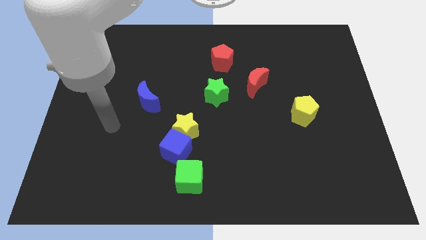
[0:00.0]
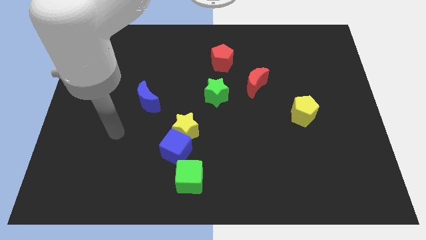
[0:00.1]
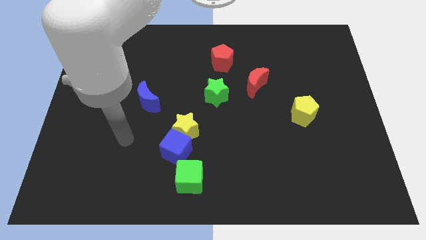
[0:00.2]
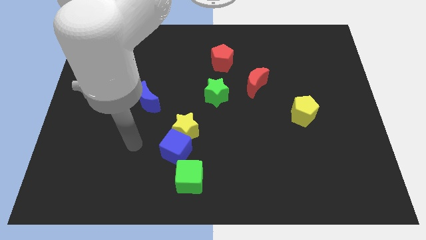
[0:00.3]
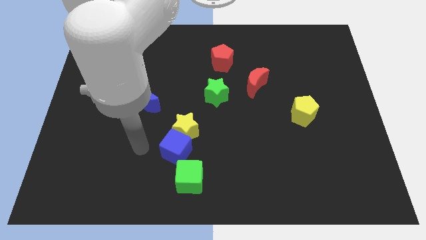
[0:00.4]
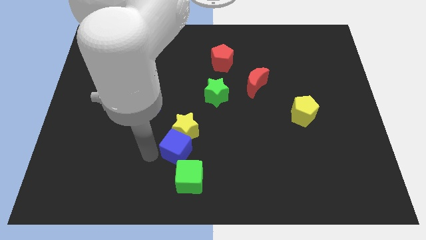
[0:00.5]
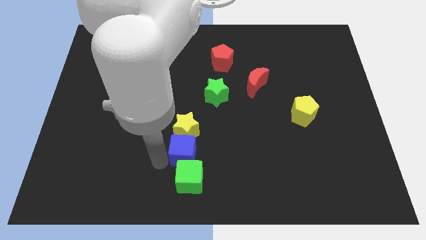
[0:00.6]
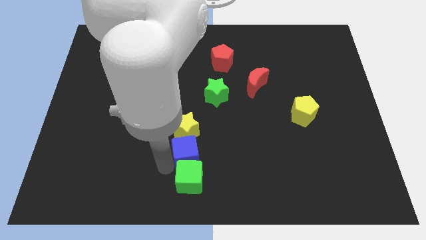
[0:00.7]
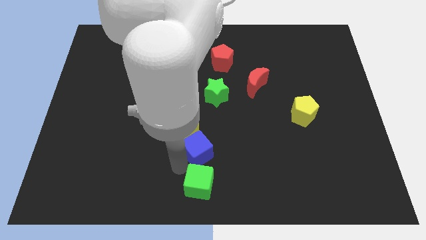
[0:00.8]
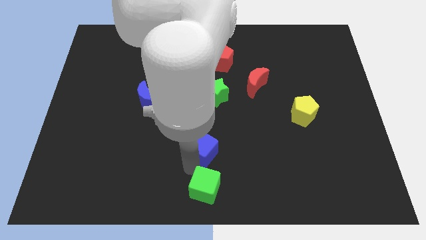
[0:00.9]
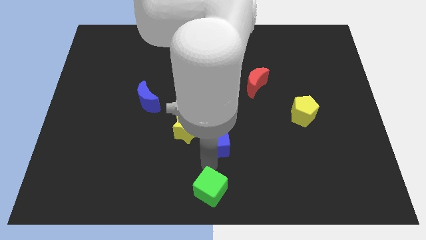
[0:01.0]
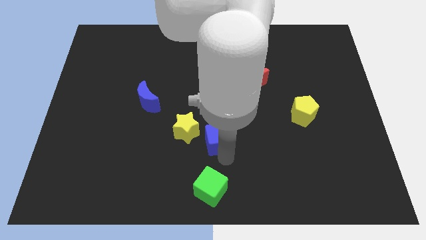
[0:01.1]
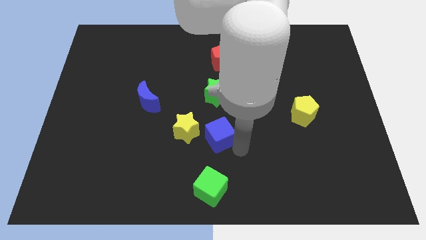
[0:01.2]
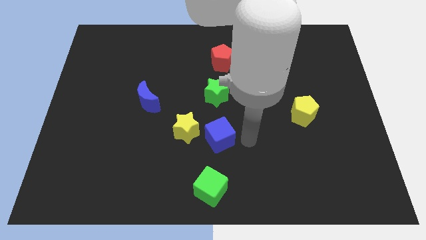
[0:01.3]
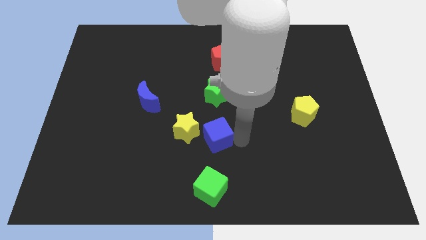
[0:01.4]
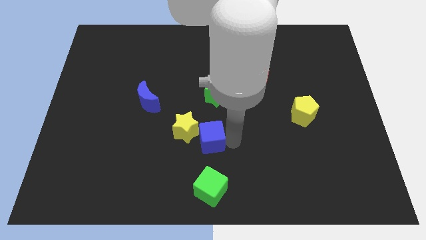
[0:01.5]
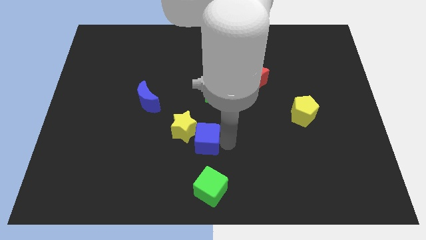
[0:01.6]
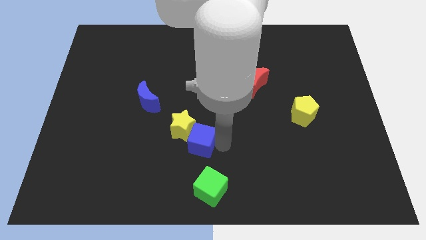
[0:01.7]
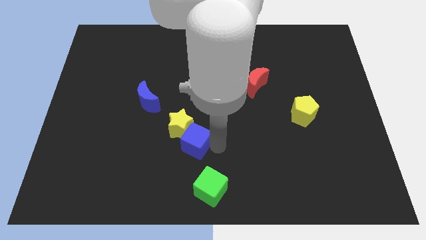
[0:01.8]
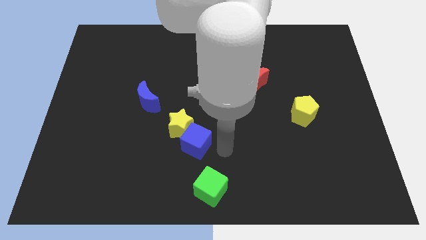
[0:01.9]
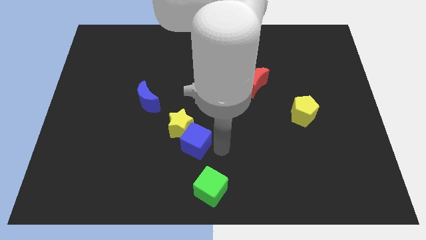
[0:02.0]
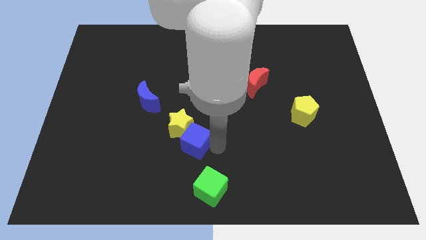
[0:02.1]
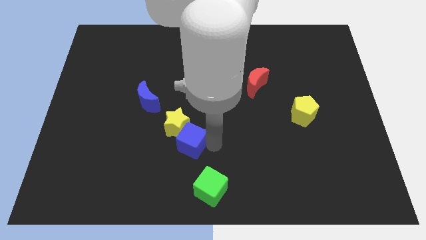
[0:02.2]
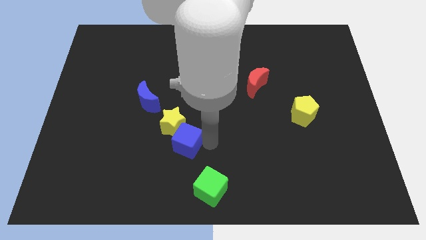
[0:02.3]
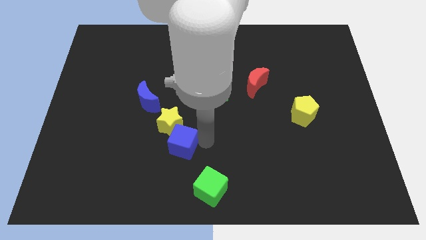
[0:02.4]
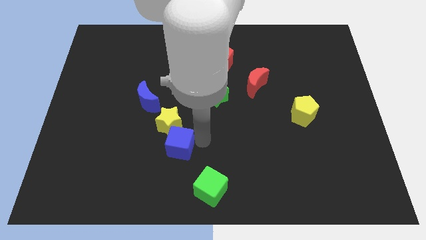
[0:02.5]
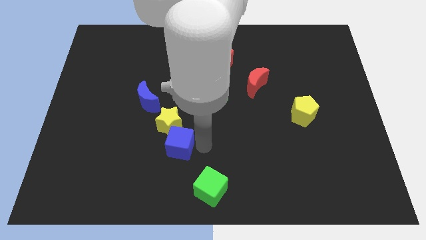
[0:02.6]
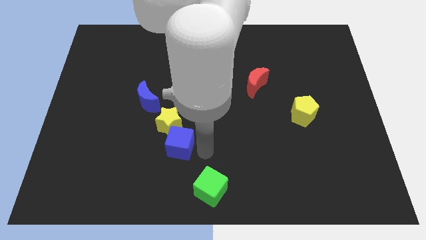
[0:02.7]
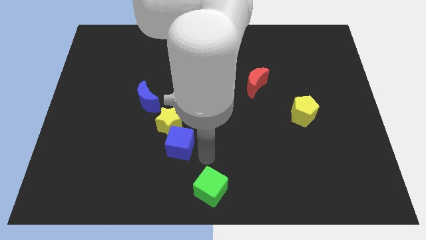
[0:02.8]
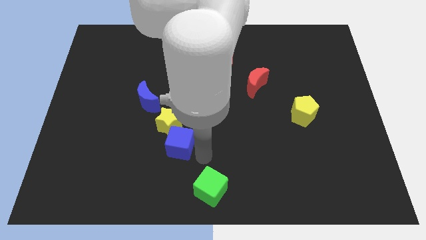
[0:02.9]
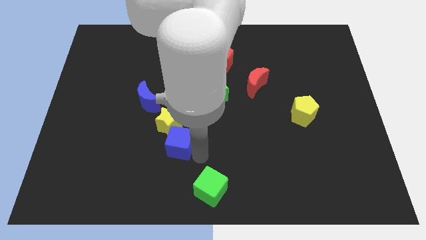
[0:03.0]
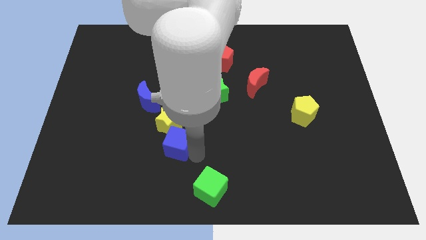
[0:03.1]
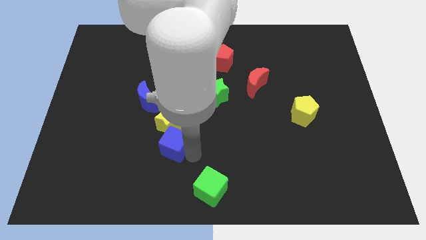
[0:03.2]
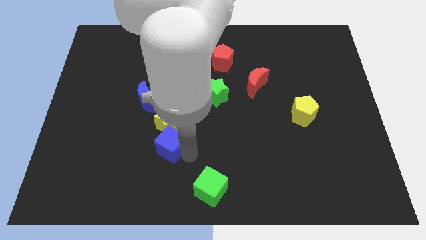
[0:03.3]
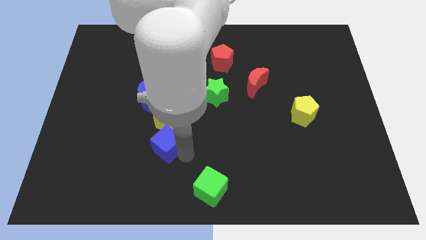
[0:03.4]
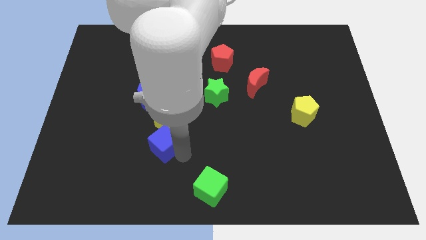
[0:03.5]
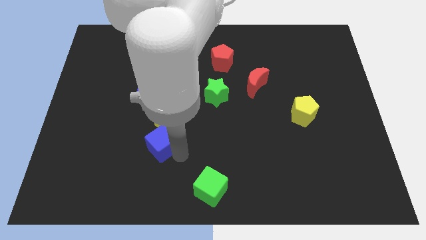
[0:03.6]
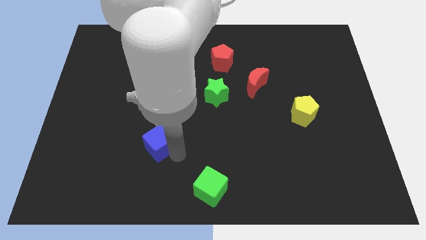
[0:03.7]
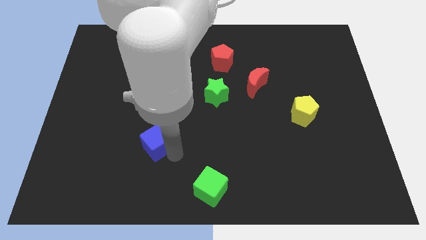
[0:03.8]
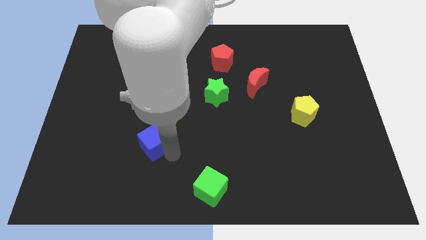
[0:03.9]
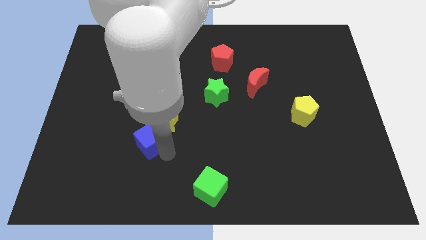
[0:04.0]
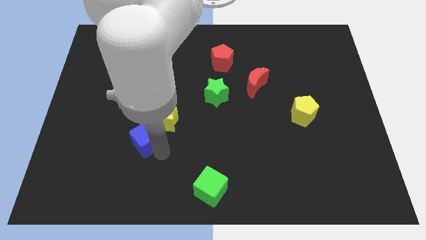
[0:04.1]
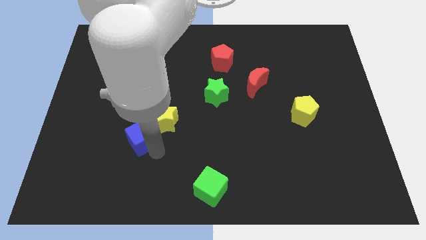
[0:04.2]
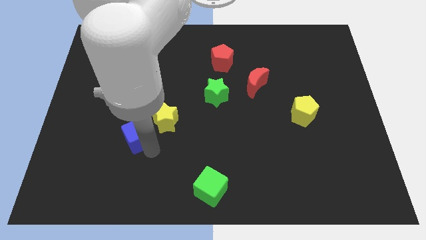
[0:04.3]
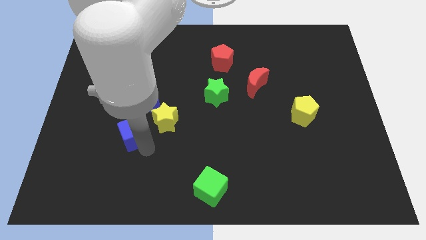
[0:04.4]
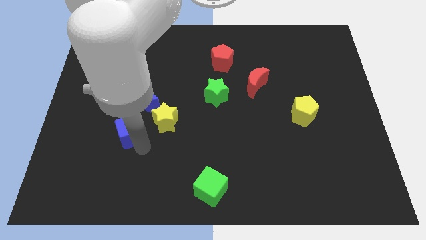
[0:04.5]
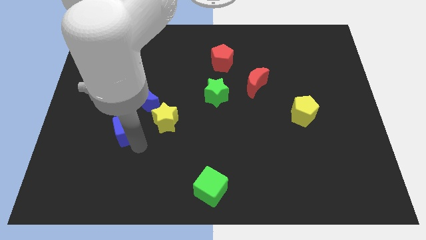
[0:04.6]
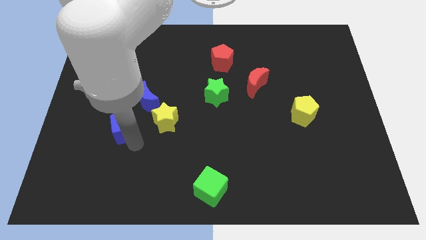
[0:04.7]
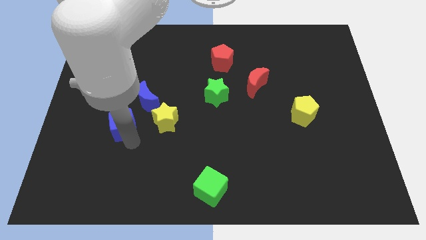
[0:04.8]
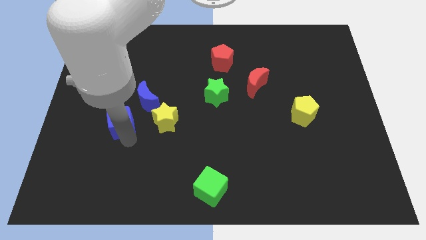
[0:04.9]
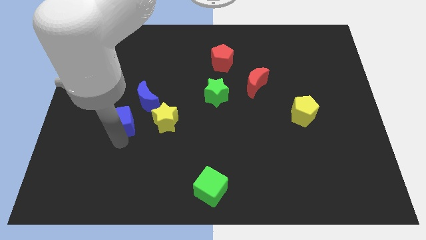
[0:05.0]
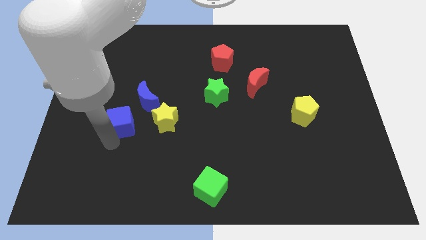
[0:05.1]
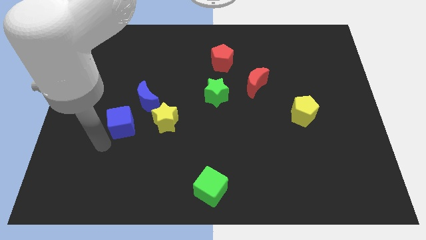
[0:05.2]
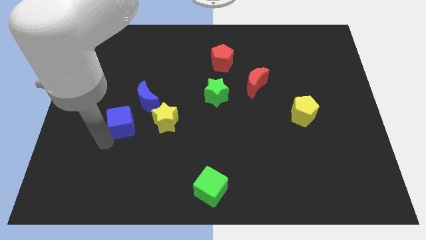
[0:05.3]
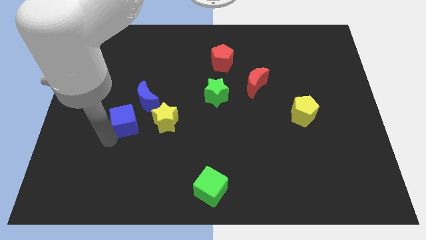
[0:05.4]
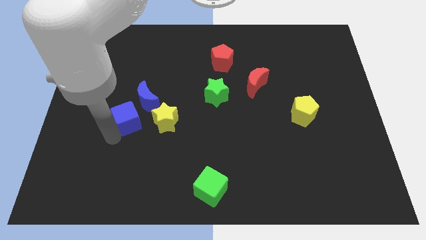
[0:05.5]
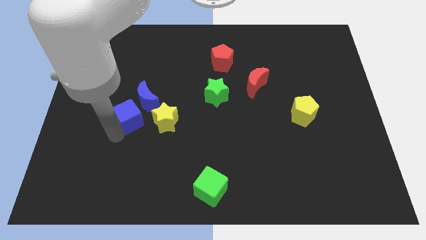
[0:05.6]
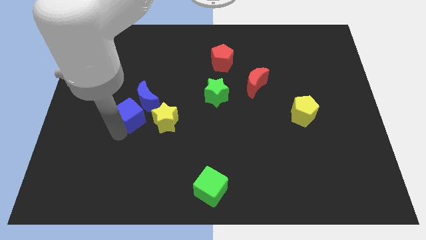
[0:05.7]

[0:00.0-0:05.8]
put the blue cube to the blue moon
